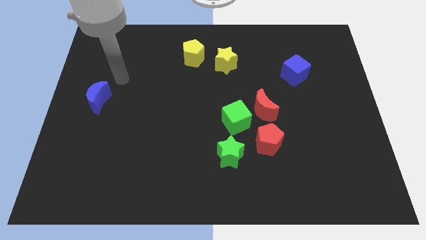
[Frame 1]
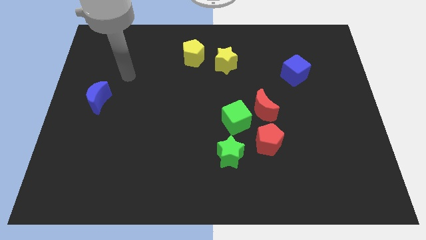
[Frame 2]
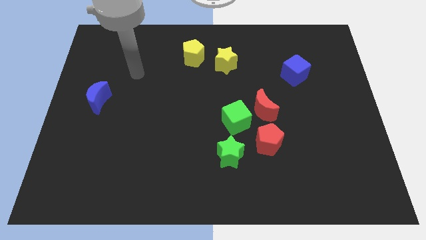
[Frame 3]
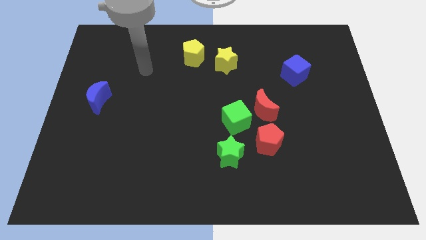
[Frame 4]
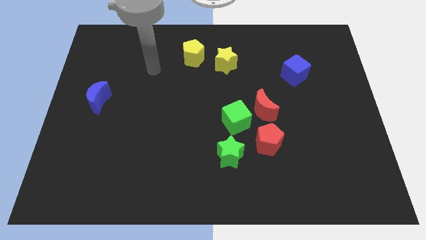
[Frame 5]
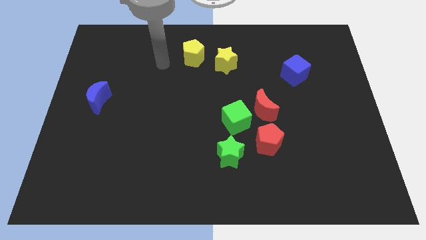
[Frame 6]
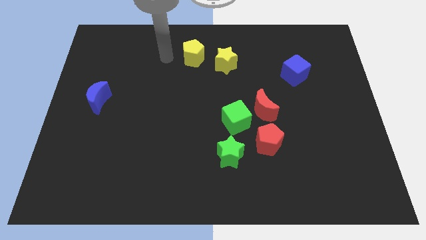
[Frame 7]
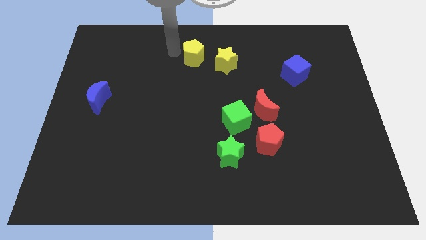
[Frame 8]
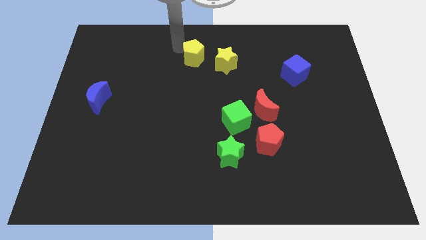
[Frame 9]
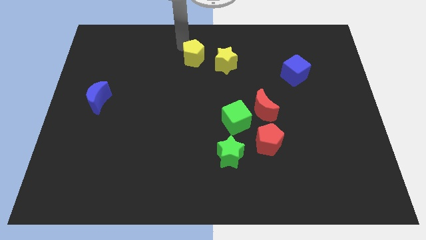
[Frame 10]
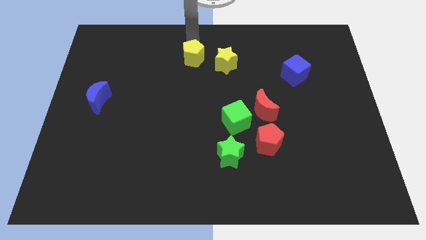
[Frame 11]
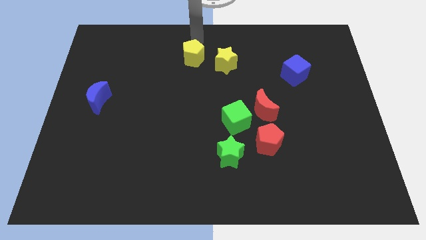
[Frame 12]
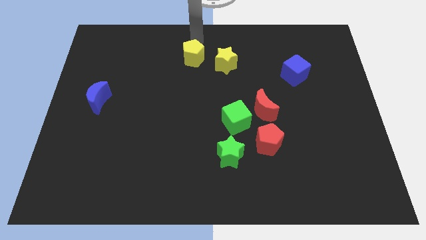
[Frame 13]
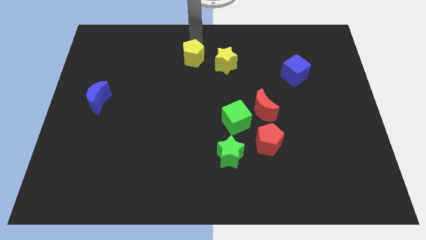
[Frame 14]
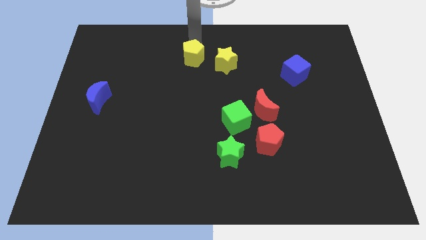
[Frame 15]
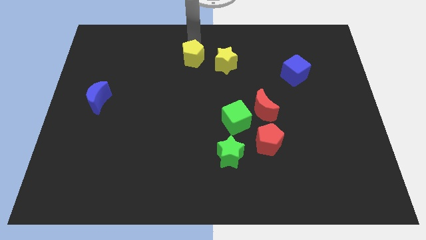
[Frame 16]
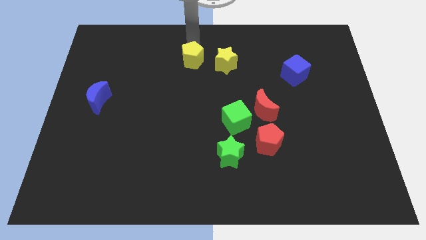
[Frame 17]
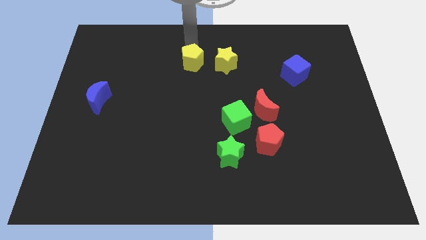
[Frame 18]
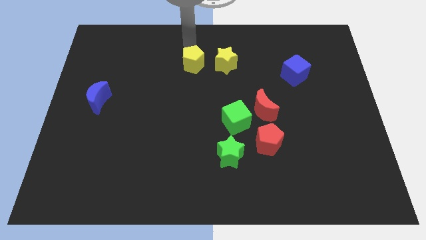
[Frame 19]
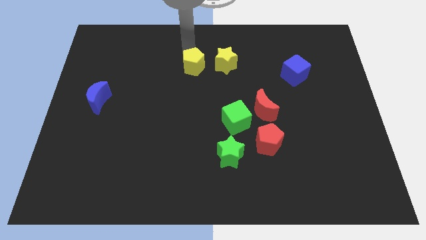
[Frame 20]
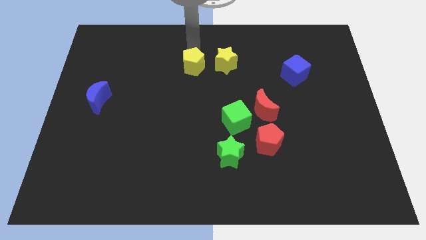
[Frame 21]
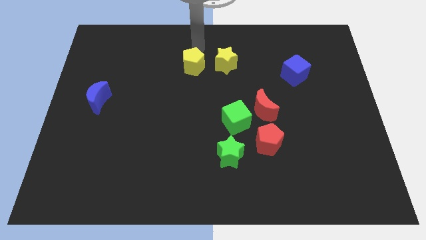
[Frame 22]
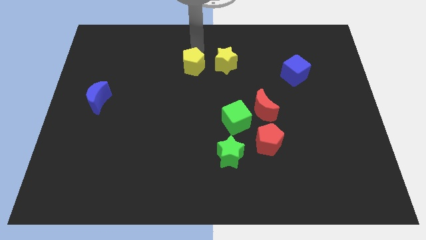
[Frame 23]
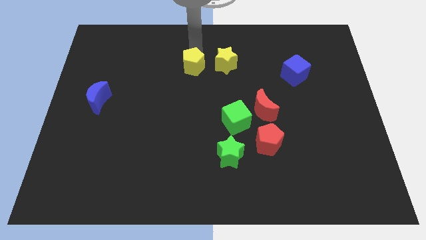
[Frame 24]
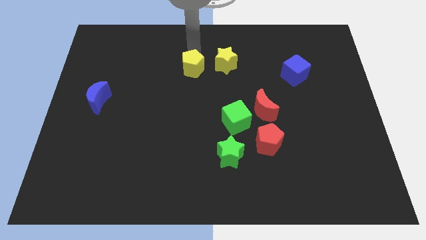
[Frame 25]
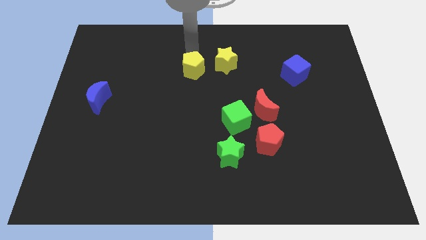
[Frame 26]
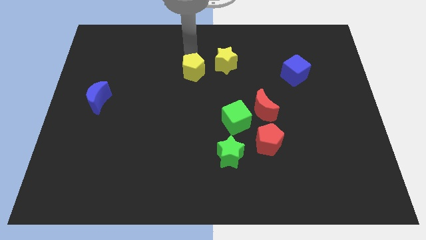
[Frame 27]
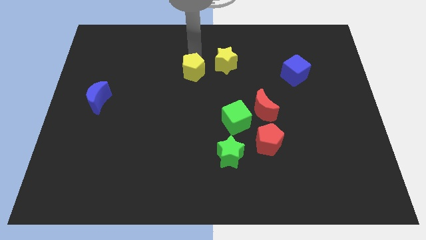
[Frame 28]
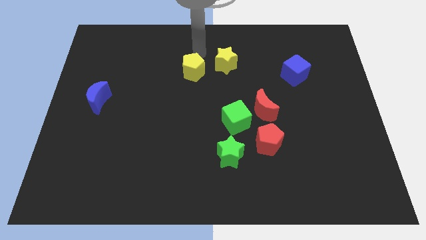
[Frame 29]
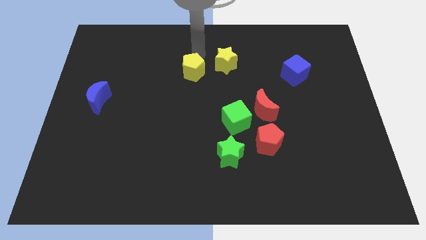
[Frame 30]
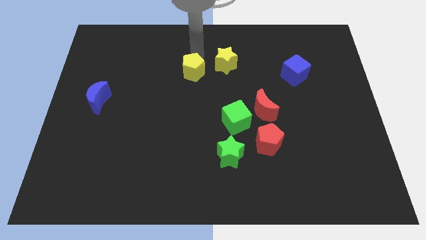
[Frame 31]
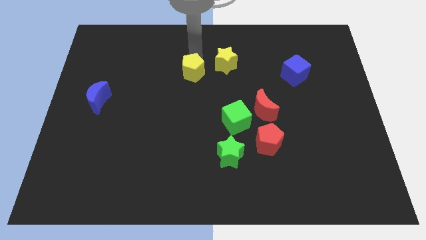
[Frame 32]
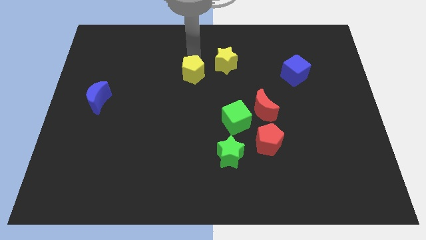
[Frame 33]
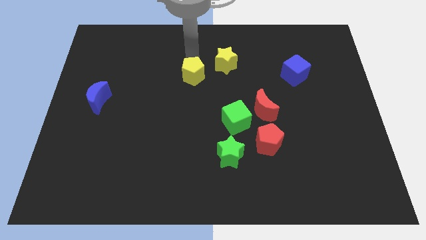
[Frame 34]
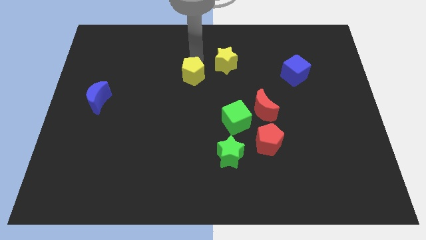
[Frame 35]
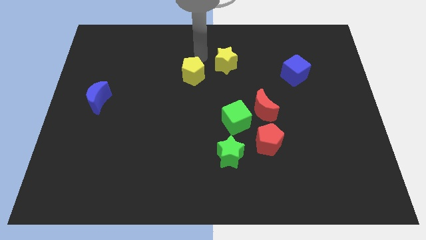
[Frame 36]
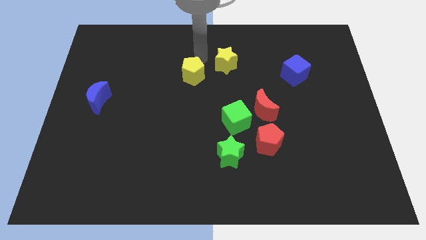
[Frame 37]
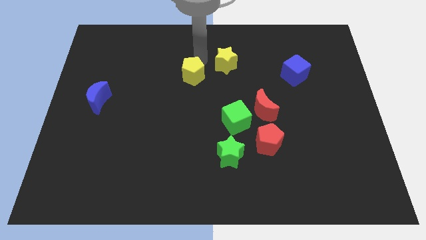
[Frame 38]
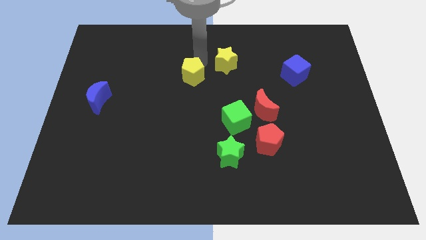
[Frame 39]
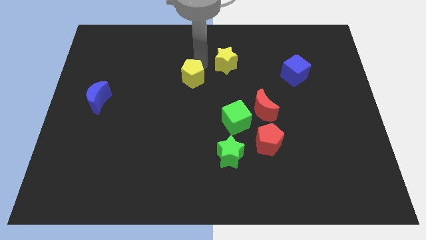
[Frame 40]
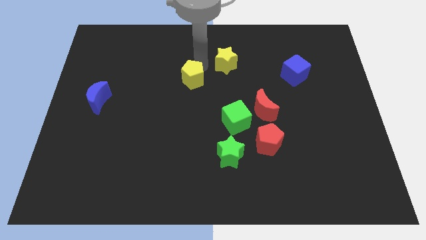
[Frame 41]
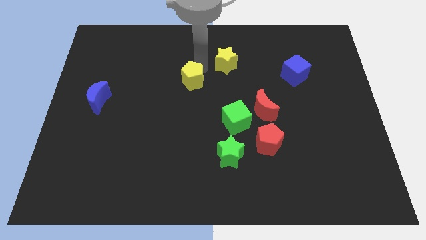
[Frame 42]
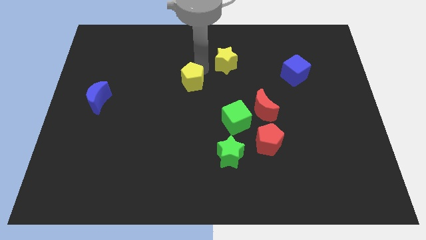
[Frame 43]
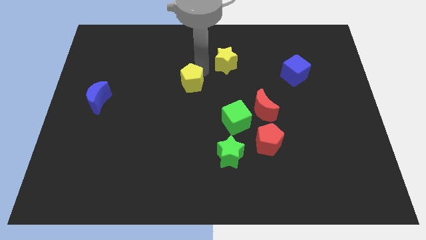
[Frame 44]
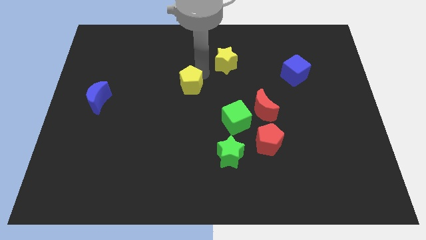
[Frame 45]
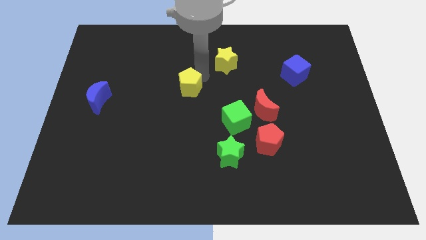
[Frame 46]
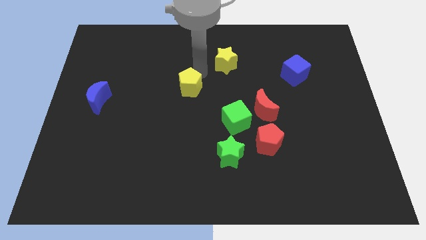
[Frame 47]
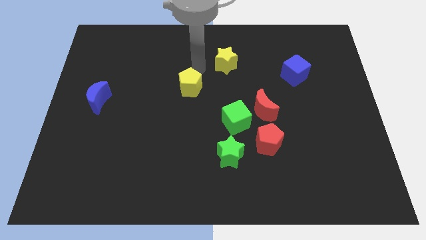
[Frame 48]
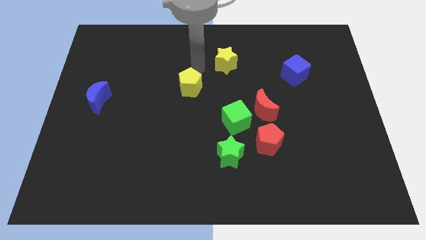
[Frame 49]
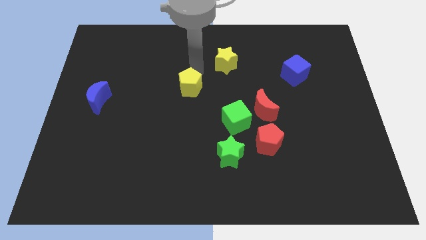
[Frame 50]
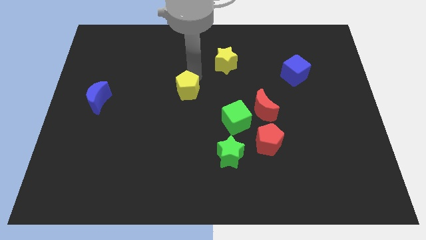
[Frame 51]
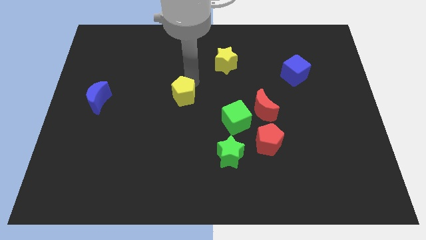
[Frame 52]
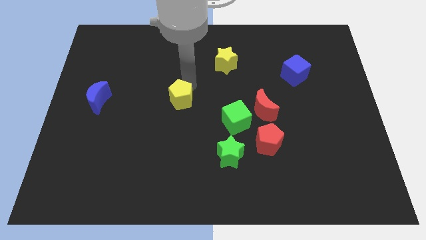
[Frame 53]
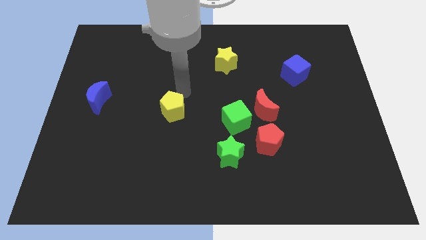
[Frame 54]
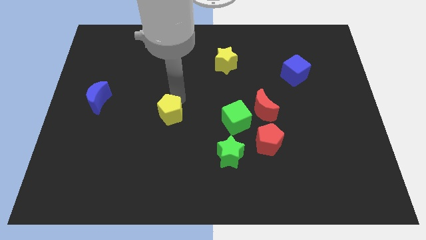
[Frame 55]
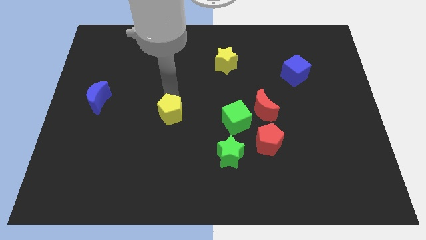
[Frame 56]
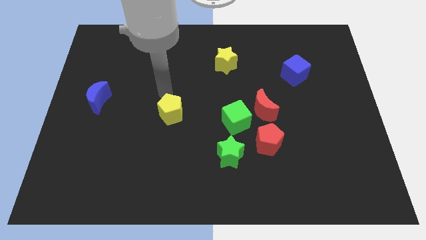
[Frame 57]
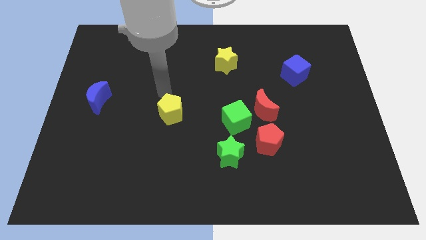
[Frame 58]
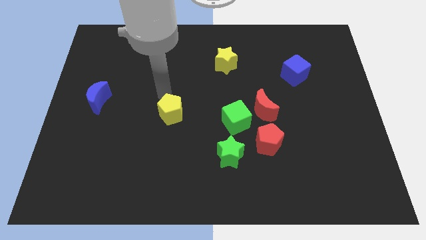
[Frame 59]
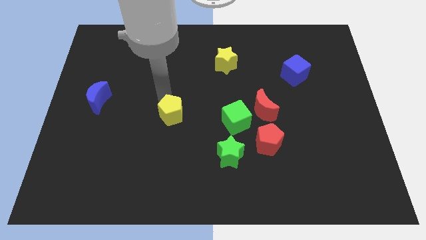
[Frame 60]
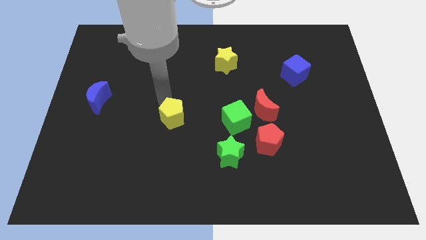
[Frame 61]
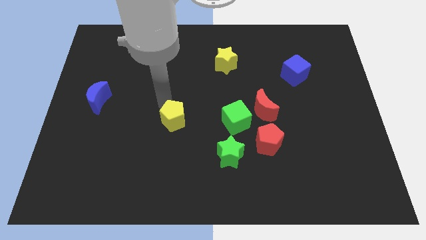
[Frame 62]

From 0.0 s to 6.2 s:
slide the yellow pentagon down

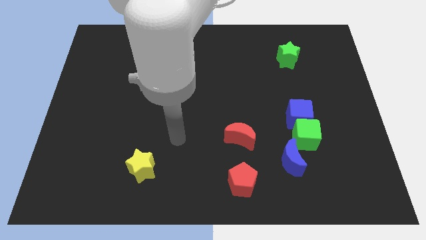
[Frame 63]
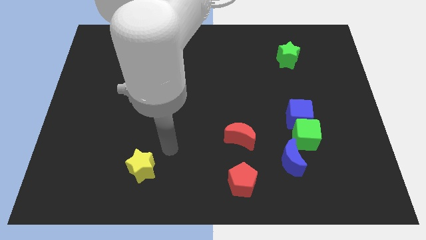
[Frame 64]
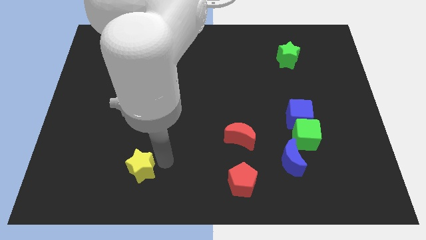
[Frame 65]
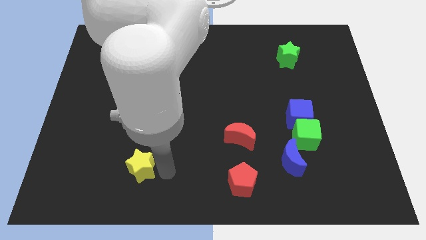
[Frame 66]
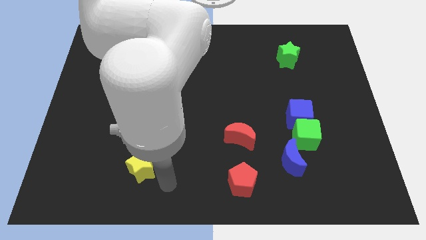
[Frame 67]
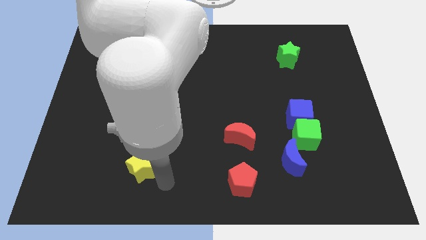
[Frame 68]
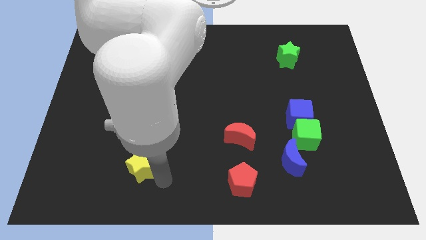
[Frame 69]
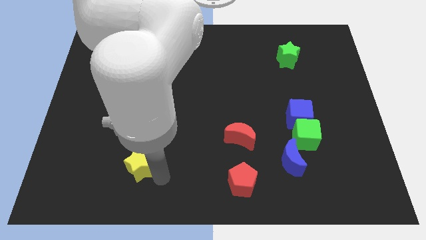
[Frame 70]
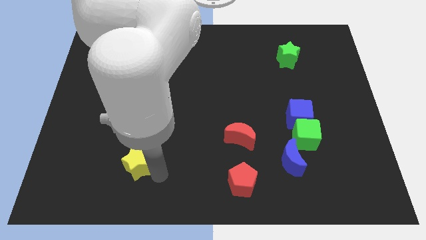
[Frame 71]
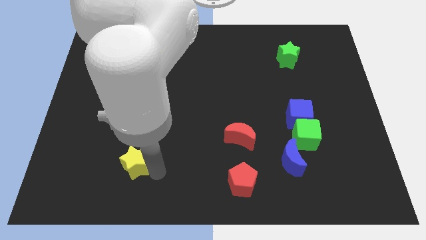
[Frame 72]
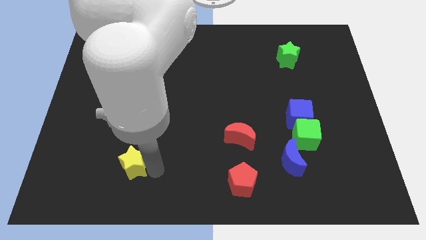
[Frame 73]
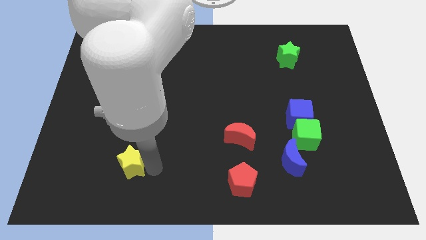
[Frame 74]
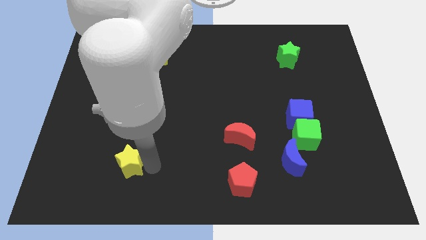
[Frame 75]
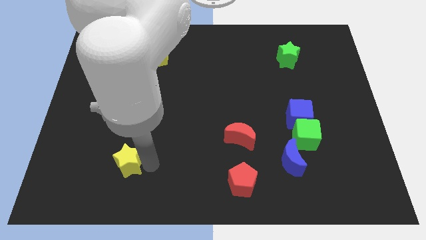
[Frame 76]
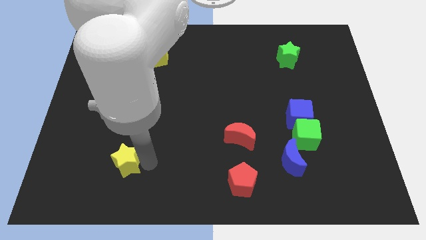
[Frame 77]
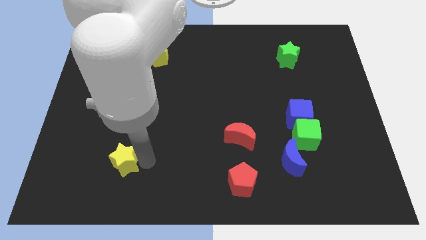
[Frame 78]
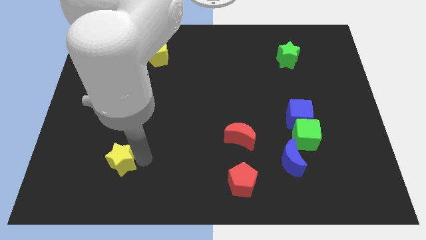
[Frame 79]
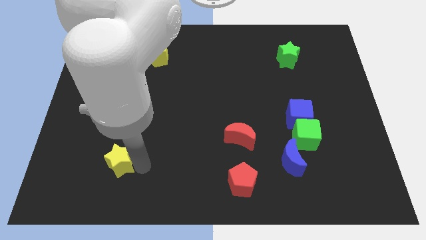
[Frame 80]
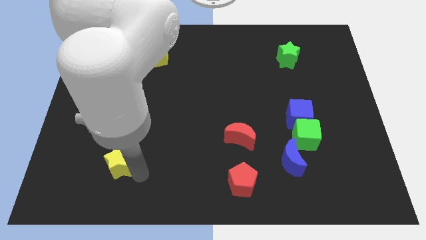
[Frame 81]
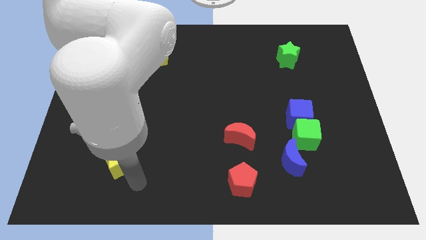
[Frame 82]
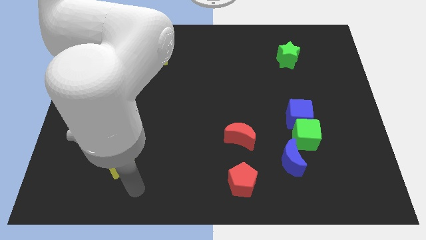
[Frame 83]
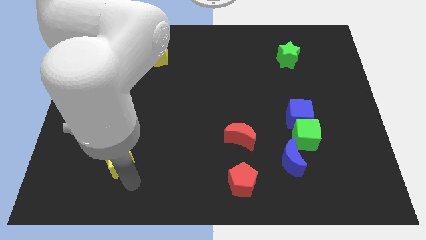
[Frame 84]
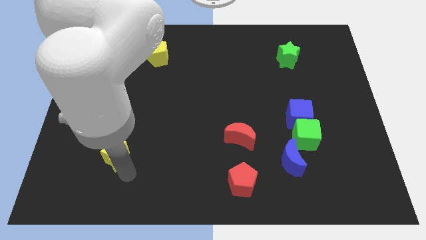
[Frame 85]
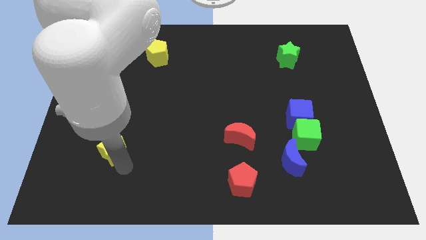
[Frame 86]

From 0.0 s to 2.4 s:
slightly slide the yellow star up and then to the left
